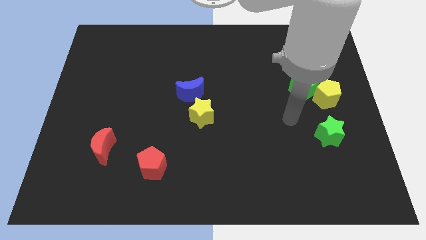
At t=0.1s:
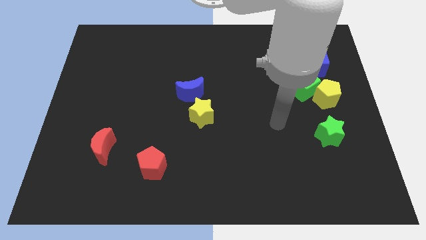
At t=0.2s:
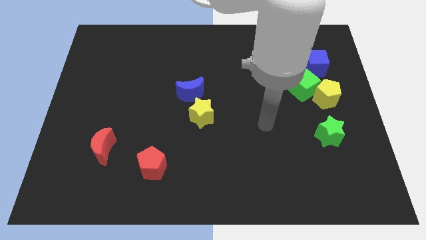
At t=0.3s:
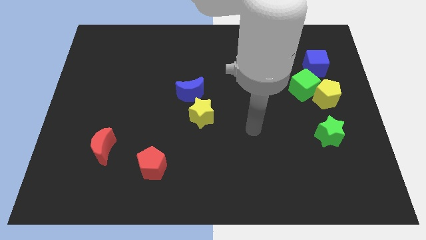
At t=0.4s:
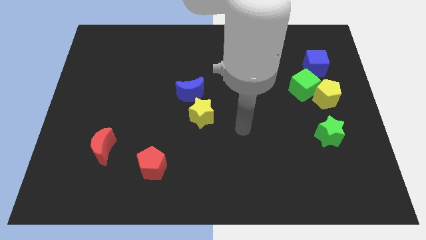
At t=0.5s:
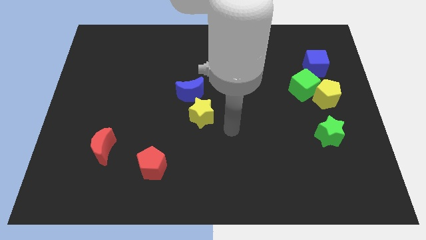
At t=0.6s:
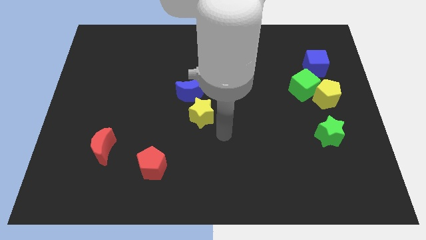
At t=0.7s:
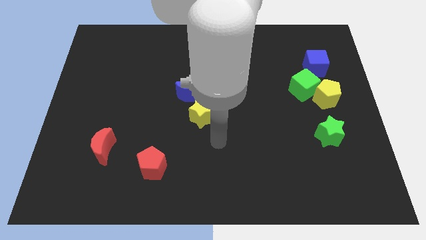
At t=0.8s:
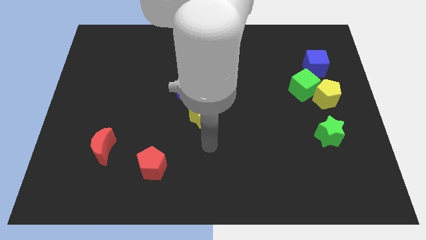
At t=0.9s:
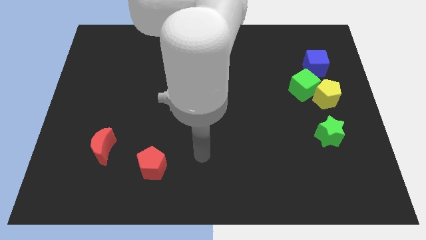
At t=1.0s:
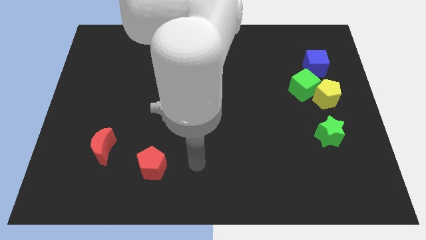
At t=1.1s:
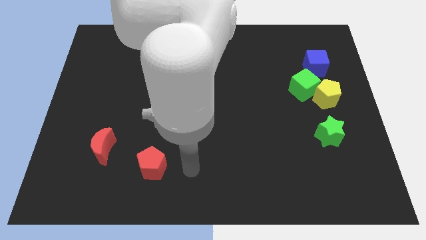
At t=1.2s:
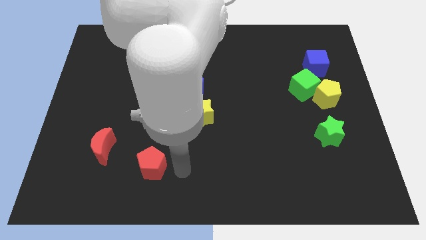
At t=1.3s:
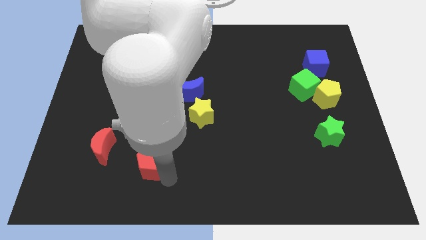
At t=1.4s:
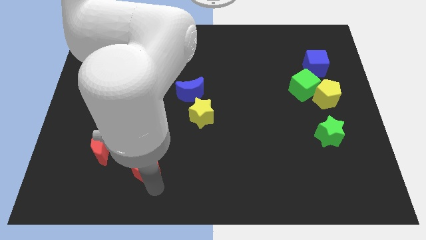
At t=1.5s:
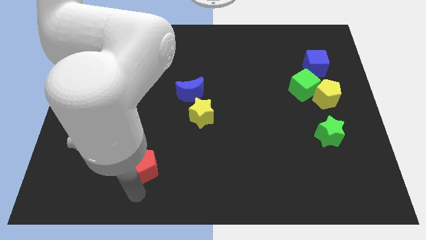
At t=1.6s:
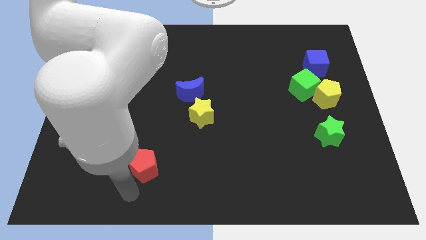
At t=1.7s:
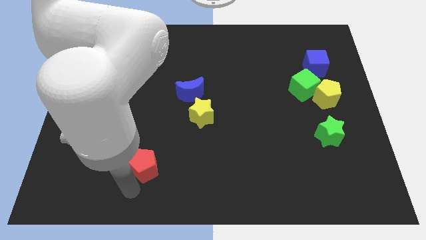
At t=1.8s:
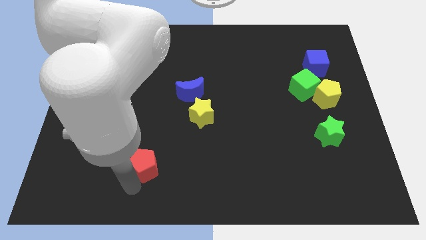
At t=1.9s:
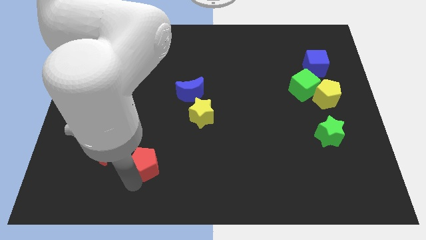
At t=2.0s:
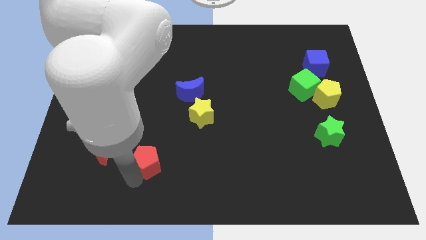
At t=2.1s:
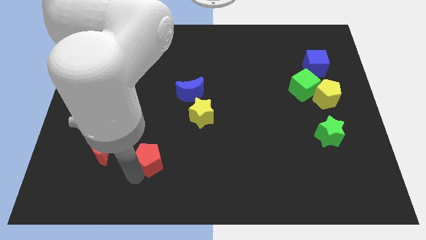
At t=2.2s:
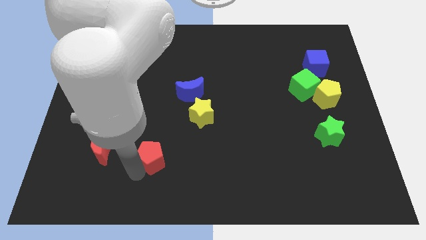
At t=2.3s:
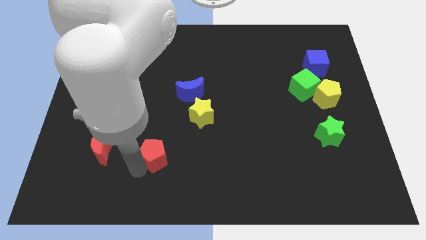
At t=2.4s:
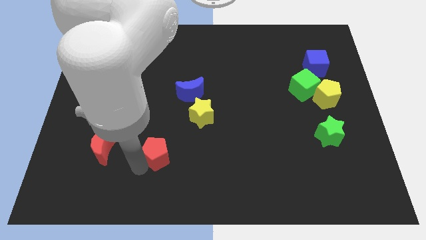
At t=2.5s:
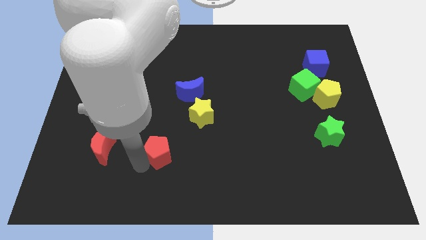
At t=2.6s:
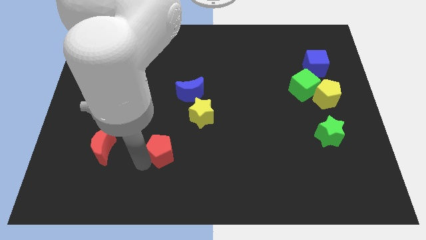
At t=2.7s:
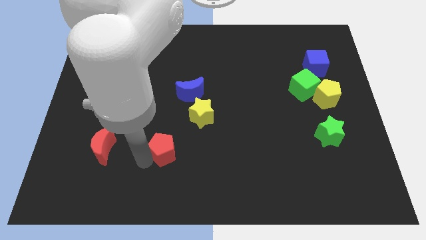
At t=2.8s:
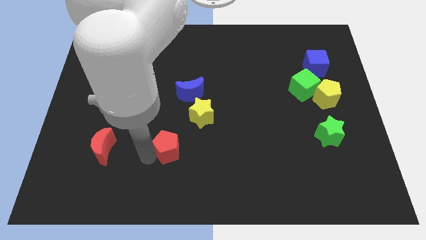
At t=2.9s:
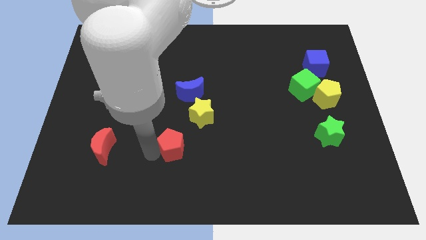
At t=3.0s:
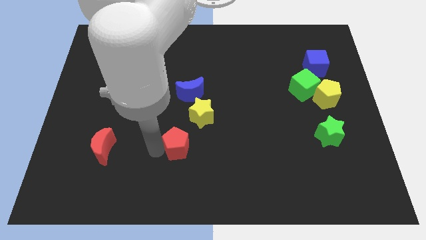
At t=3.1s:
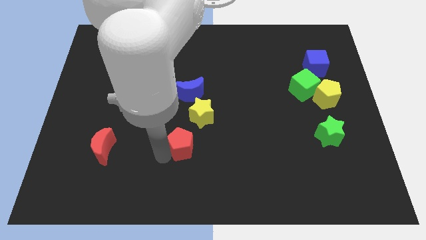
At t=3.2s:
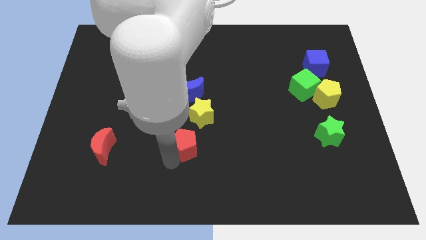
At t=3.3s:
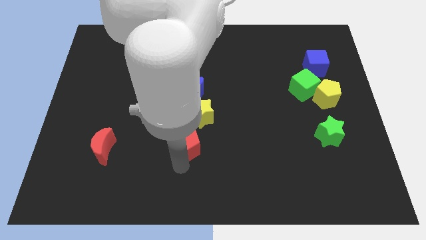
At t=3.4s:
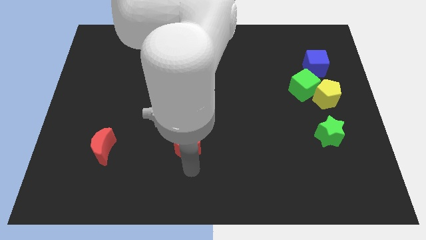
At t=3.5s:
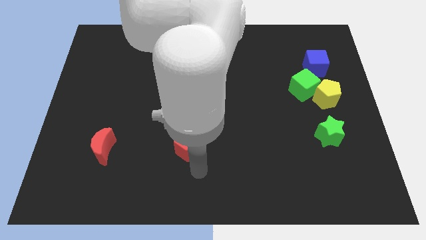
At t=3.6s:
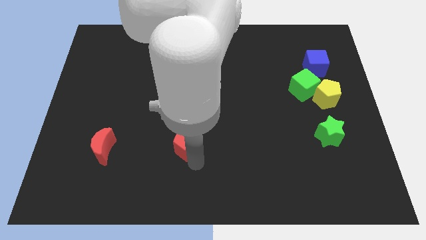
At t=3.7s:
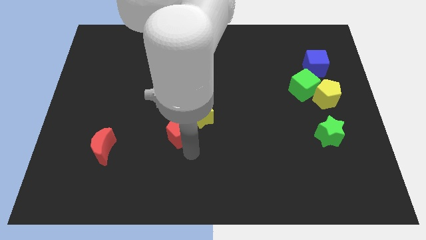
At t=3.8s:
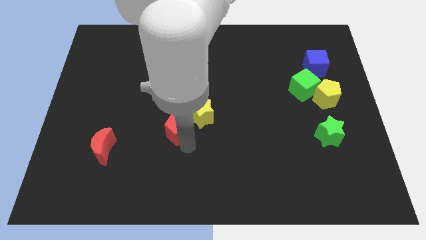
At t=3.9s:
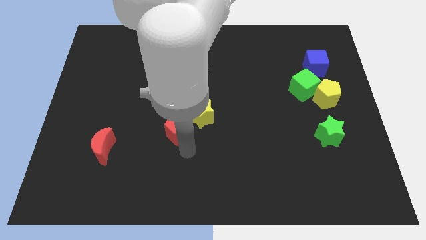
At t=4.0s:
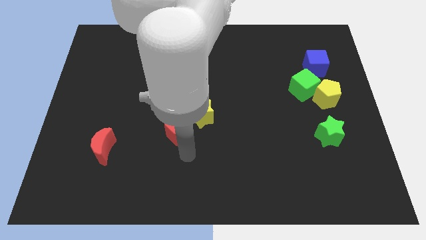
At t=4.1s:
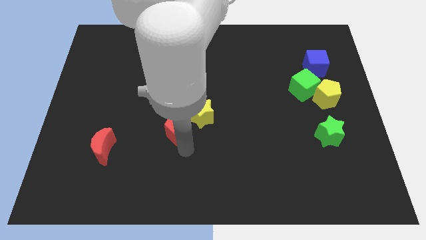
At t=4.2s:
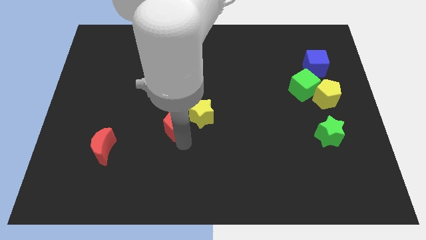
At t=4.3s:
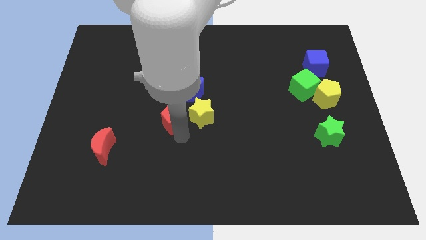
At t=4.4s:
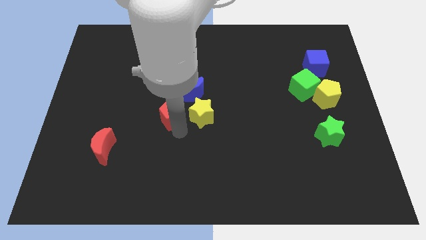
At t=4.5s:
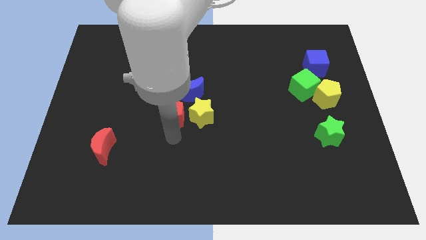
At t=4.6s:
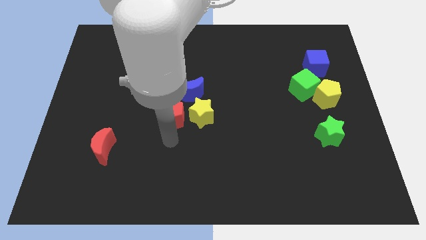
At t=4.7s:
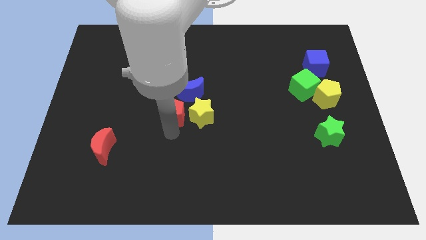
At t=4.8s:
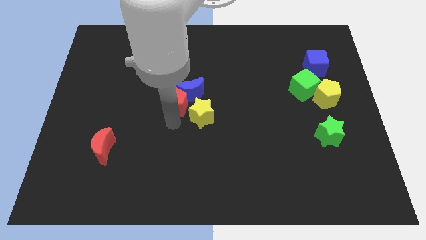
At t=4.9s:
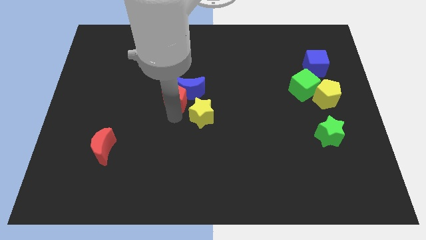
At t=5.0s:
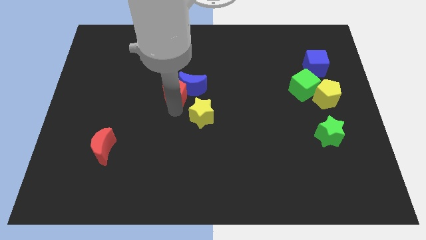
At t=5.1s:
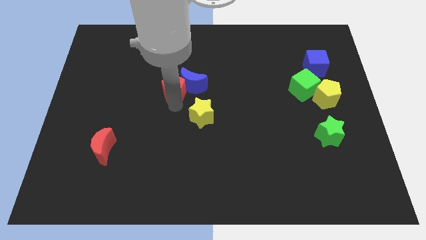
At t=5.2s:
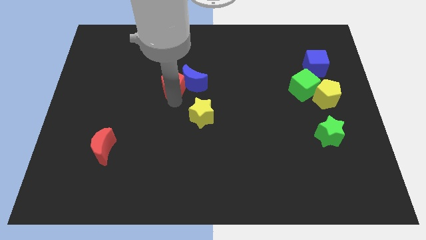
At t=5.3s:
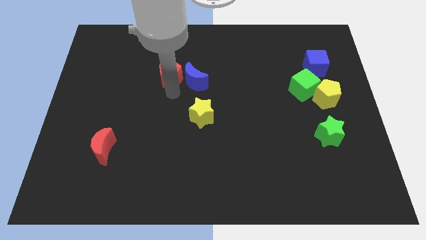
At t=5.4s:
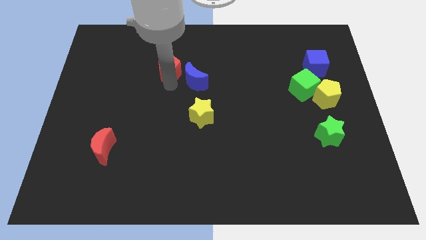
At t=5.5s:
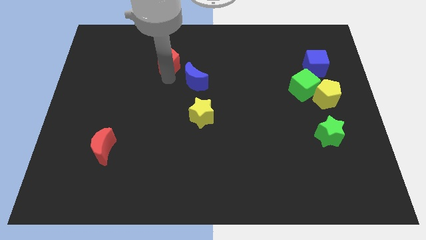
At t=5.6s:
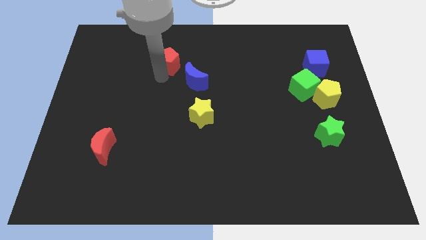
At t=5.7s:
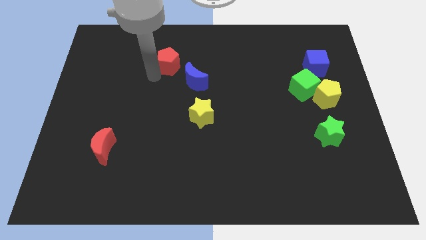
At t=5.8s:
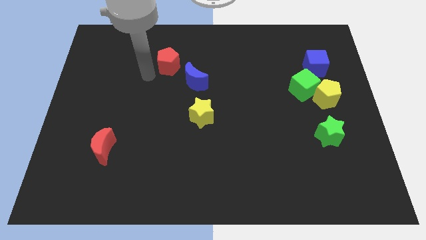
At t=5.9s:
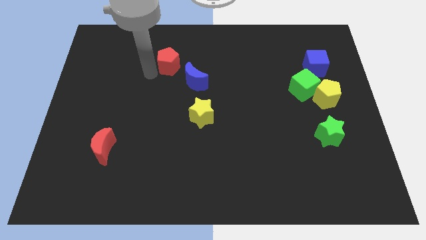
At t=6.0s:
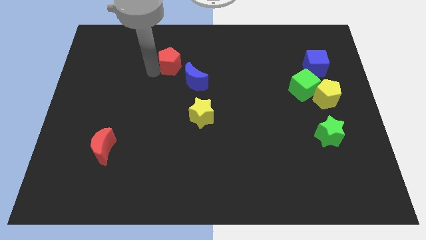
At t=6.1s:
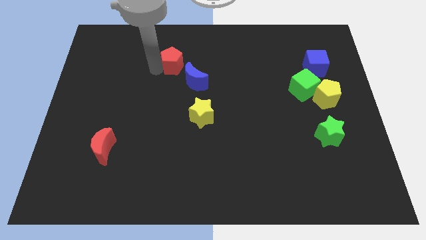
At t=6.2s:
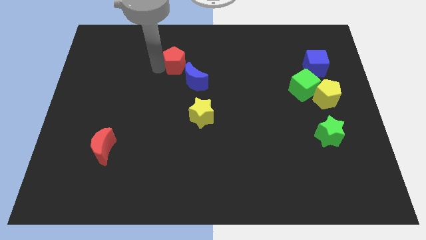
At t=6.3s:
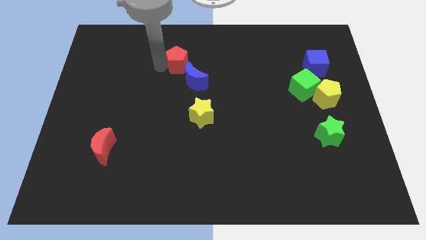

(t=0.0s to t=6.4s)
put the red pentagon above the blue moon

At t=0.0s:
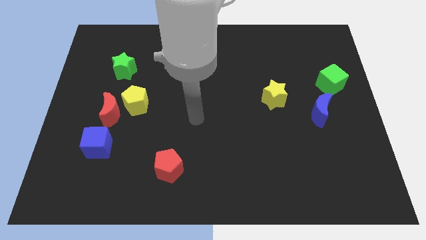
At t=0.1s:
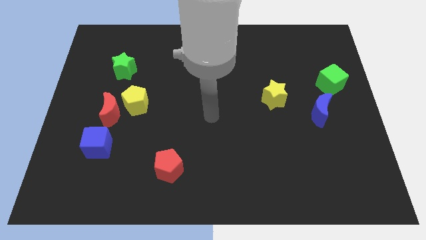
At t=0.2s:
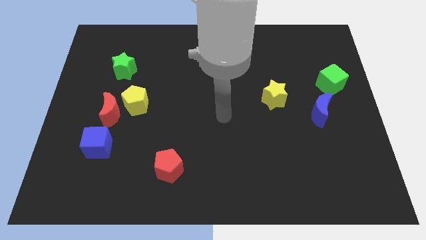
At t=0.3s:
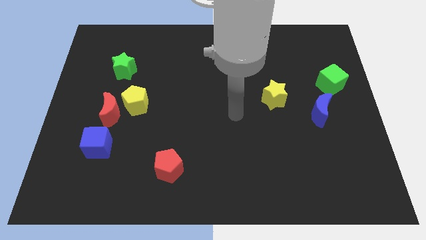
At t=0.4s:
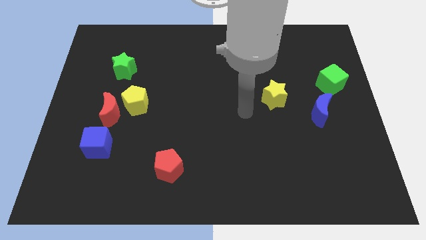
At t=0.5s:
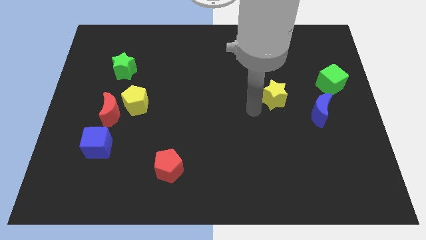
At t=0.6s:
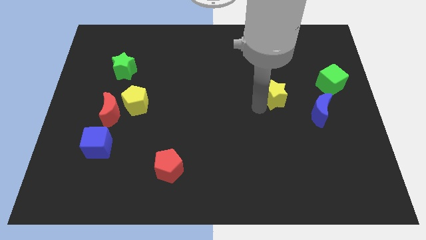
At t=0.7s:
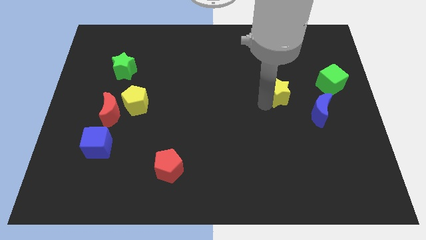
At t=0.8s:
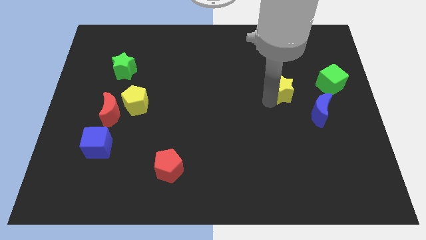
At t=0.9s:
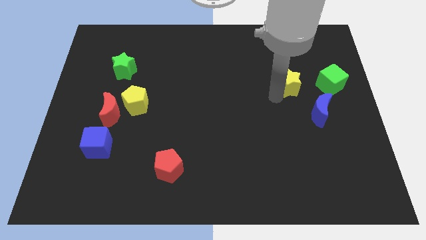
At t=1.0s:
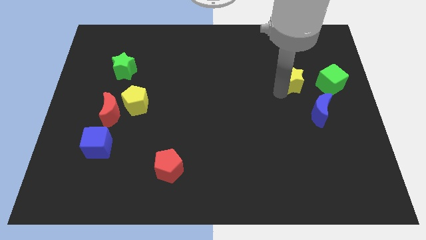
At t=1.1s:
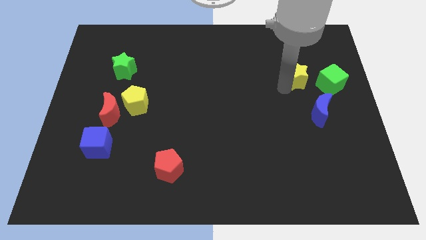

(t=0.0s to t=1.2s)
slide the yellow star above the blue moon
